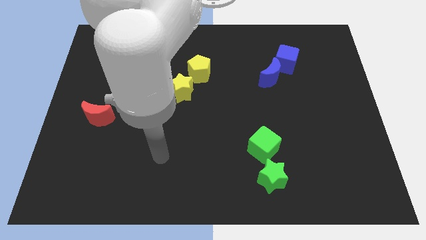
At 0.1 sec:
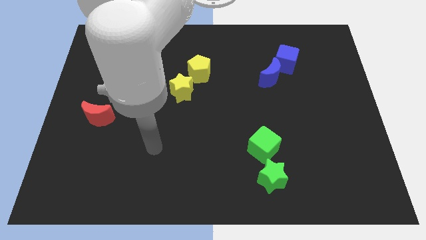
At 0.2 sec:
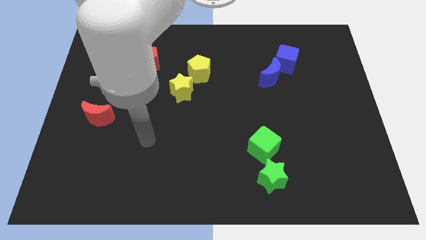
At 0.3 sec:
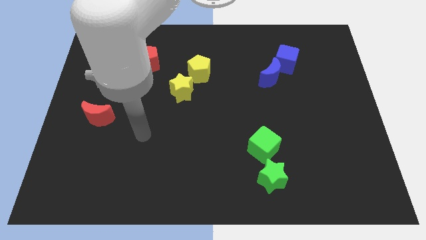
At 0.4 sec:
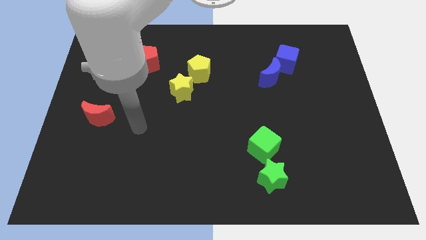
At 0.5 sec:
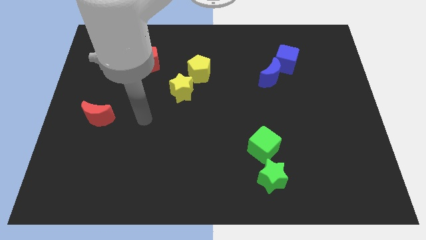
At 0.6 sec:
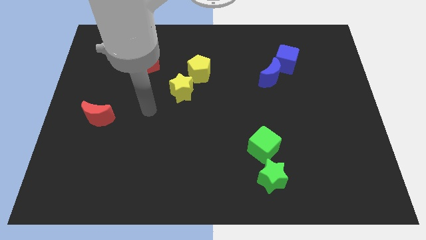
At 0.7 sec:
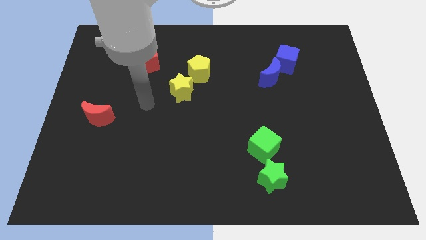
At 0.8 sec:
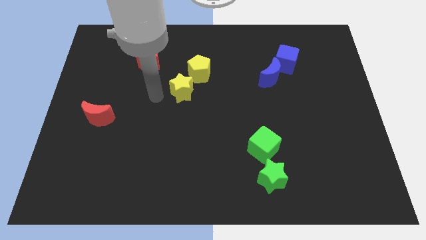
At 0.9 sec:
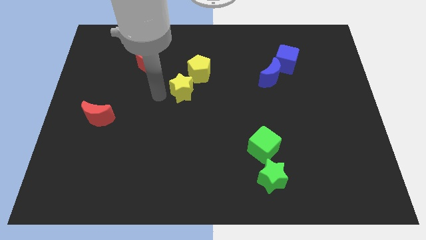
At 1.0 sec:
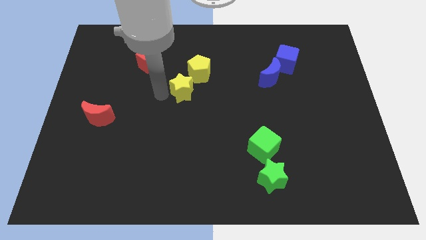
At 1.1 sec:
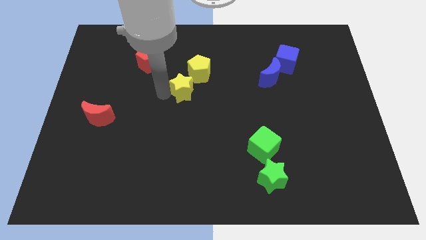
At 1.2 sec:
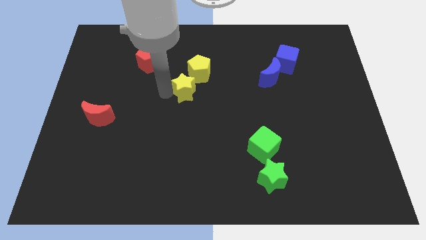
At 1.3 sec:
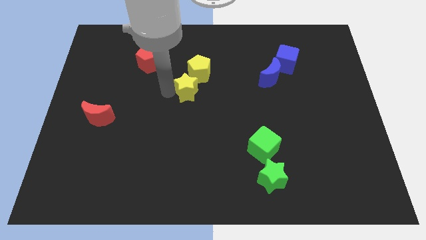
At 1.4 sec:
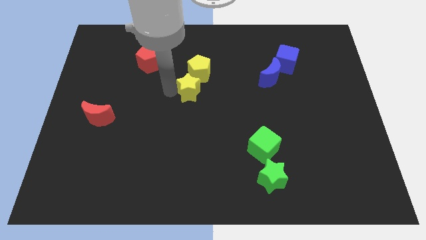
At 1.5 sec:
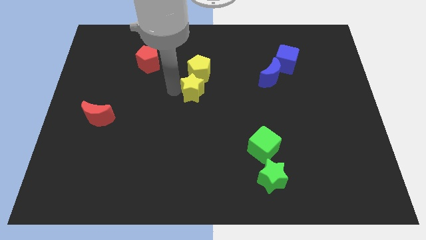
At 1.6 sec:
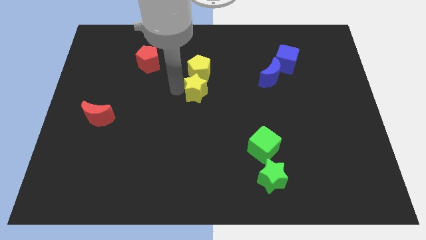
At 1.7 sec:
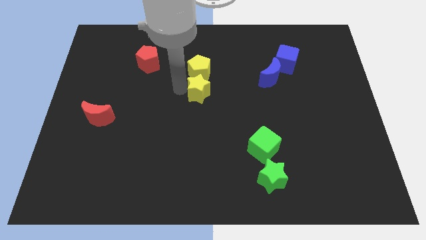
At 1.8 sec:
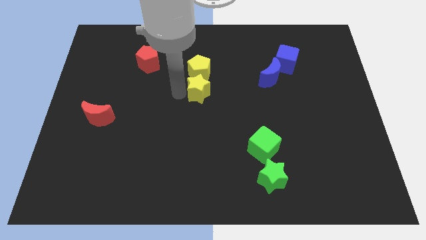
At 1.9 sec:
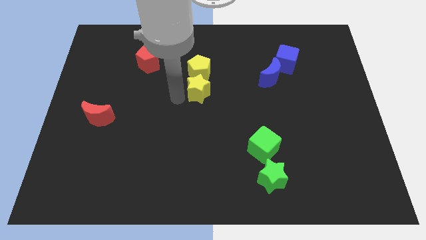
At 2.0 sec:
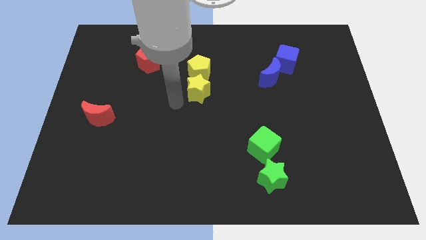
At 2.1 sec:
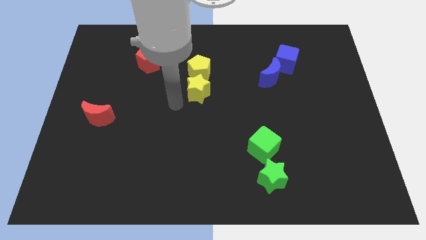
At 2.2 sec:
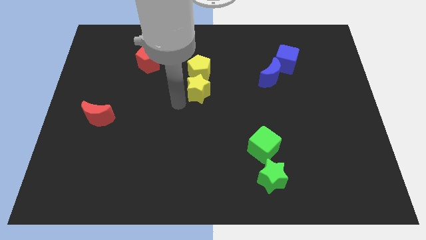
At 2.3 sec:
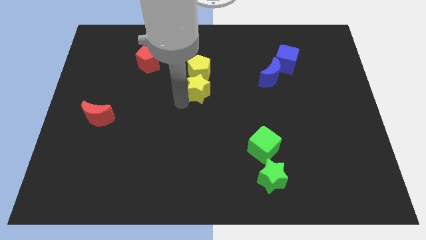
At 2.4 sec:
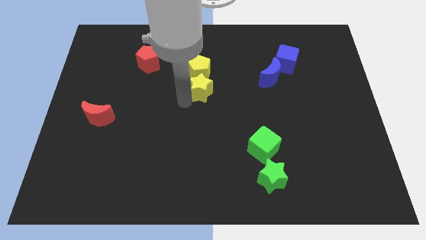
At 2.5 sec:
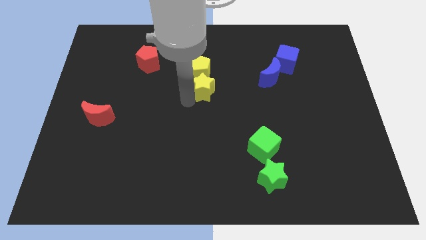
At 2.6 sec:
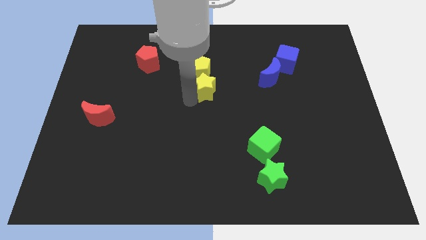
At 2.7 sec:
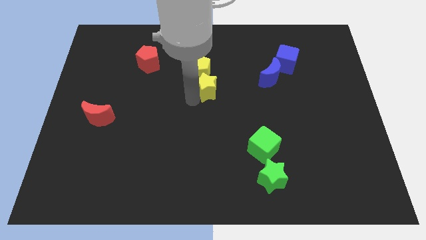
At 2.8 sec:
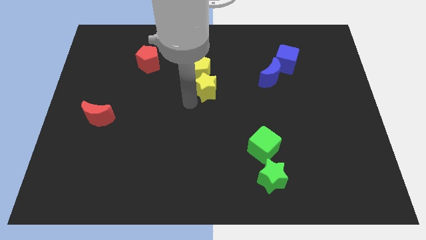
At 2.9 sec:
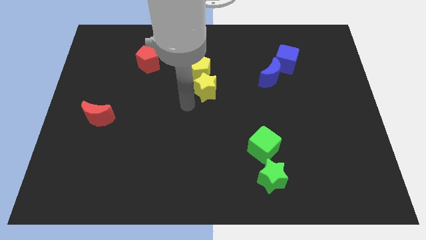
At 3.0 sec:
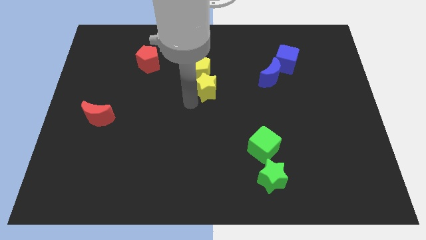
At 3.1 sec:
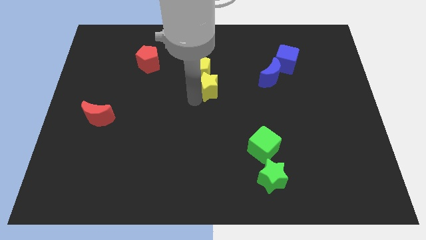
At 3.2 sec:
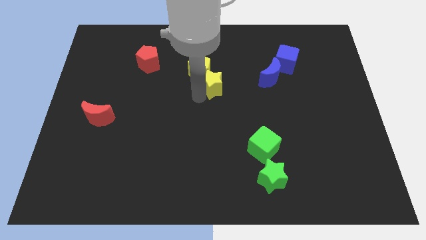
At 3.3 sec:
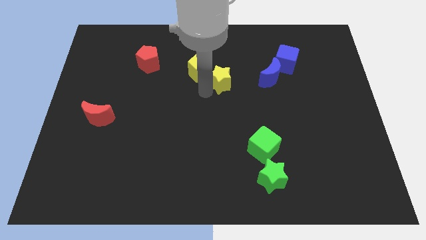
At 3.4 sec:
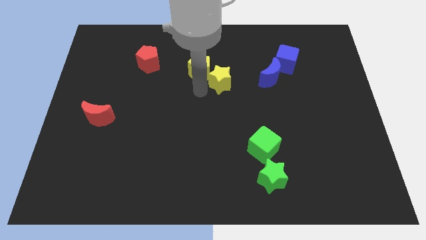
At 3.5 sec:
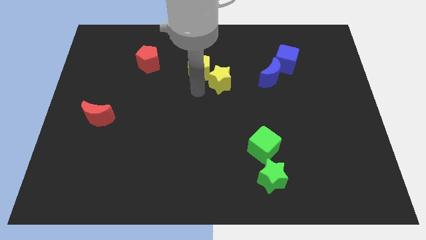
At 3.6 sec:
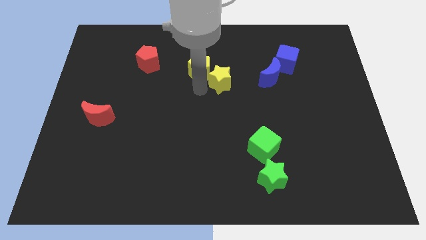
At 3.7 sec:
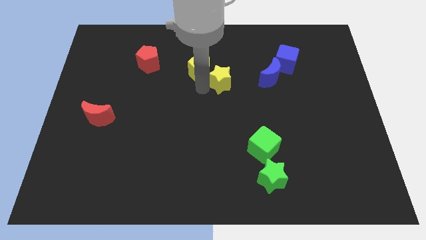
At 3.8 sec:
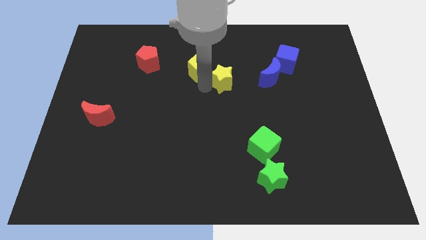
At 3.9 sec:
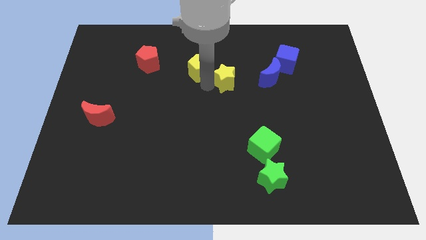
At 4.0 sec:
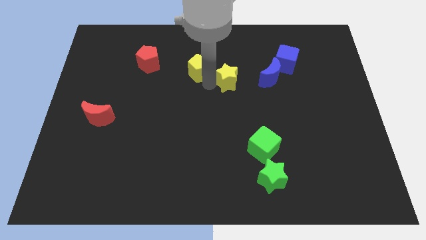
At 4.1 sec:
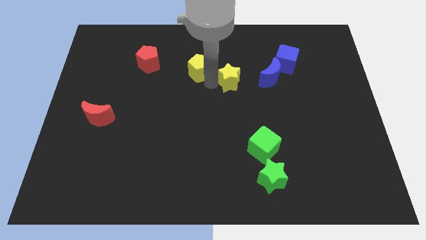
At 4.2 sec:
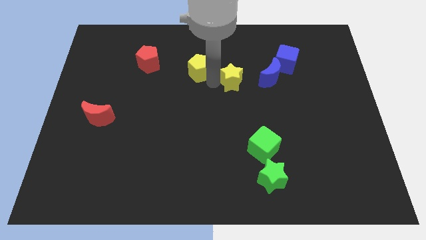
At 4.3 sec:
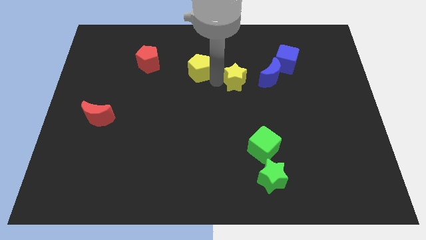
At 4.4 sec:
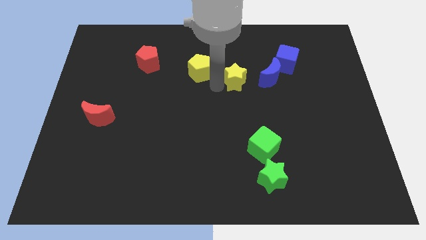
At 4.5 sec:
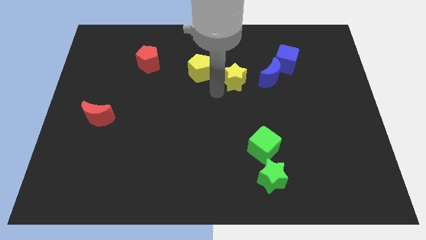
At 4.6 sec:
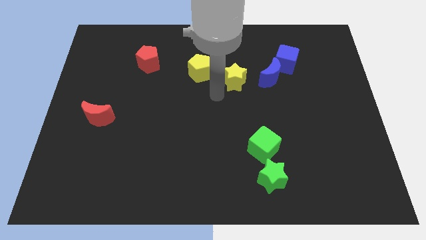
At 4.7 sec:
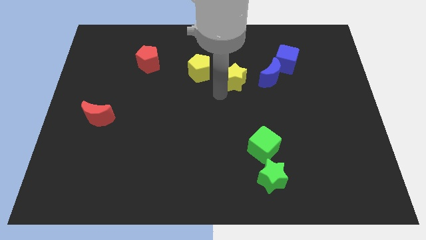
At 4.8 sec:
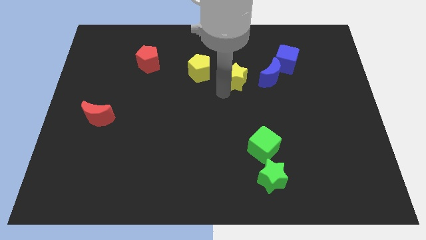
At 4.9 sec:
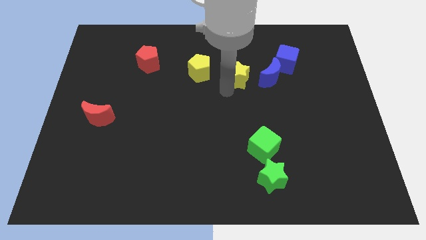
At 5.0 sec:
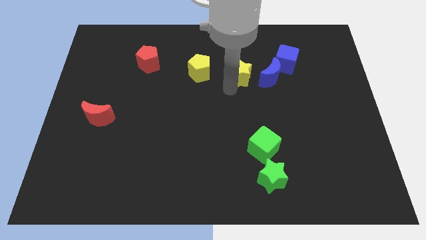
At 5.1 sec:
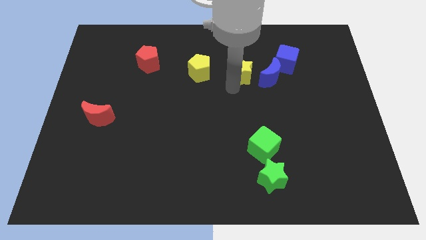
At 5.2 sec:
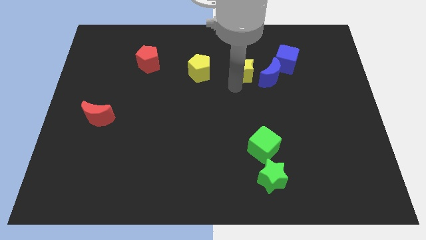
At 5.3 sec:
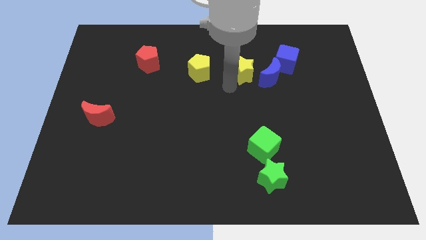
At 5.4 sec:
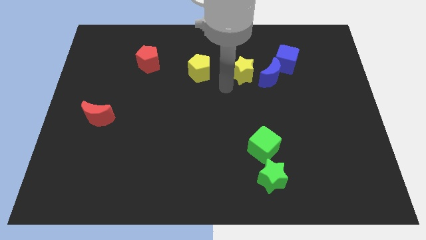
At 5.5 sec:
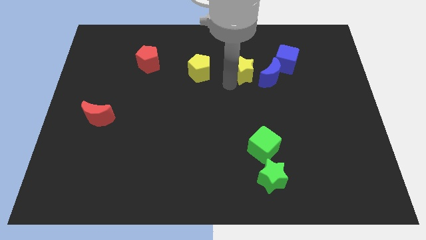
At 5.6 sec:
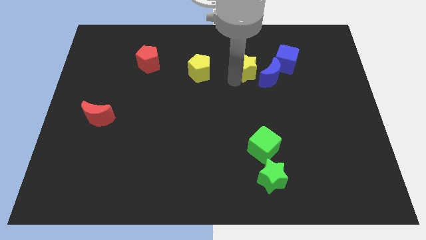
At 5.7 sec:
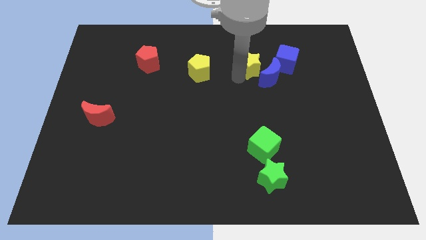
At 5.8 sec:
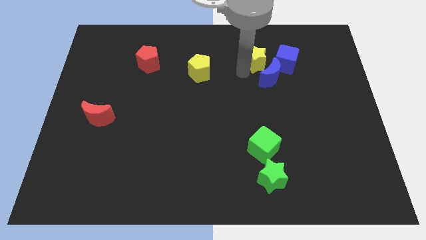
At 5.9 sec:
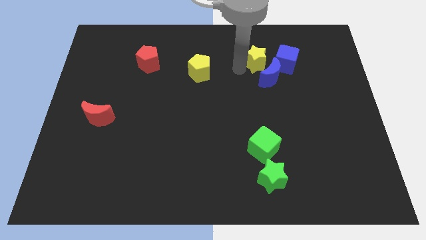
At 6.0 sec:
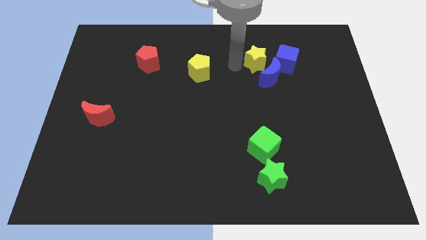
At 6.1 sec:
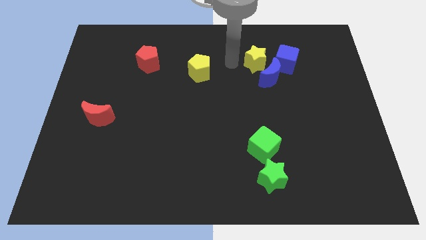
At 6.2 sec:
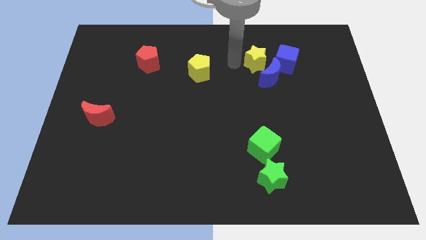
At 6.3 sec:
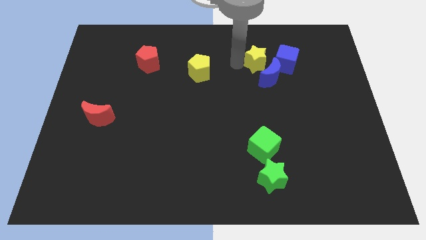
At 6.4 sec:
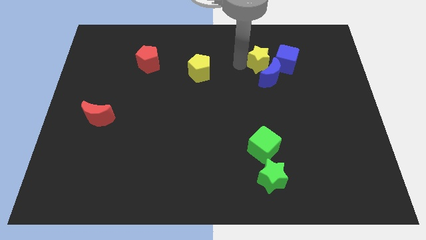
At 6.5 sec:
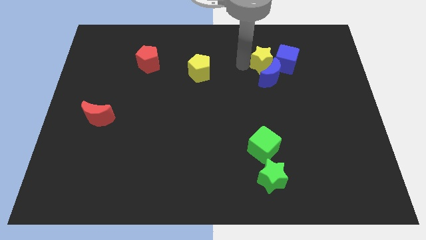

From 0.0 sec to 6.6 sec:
push the yellow star next to the blue cube
